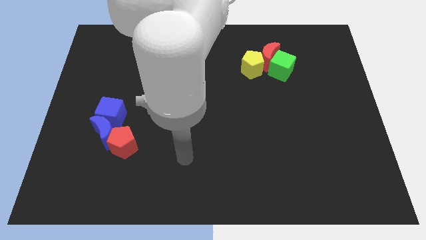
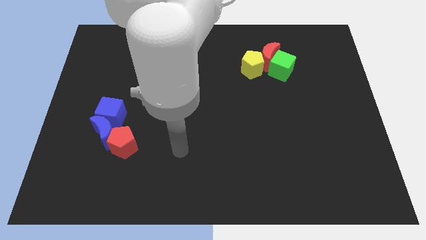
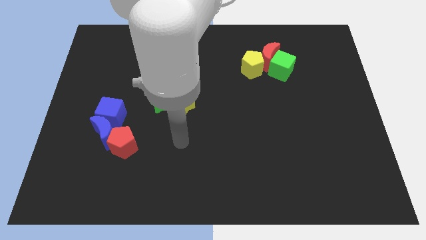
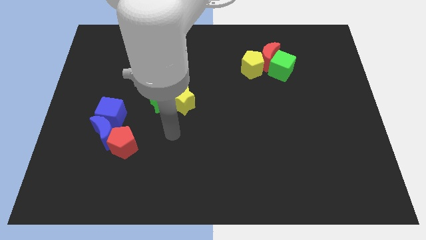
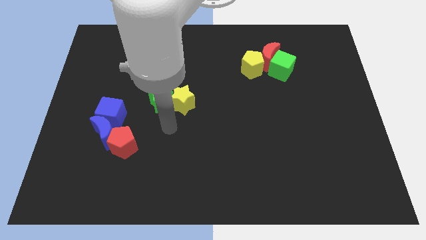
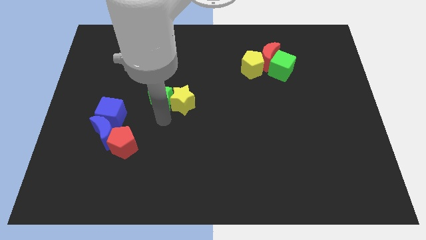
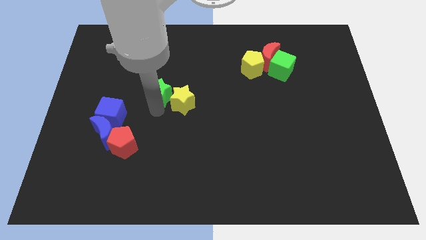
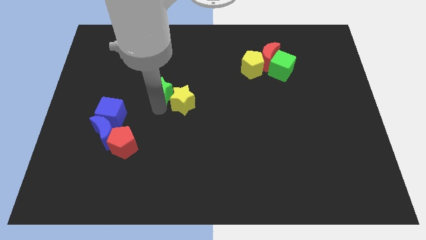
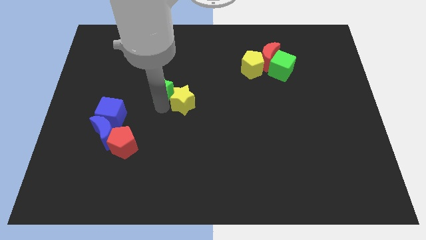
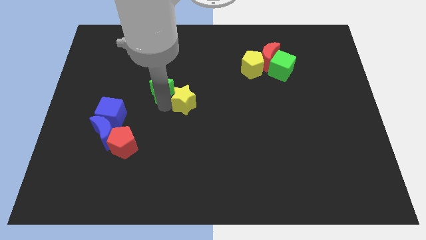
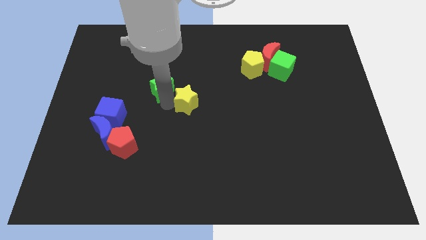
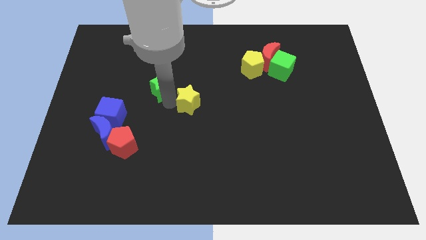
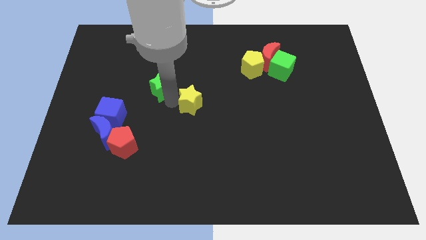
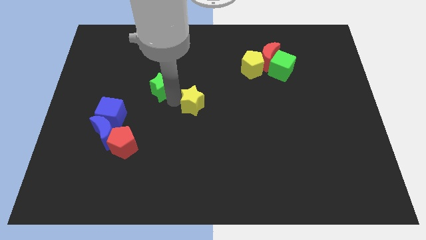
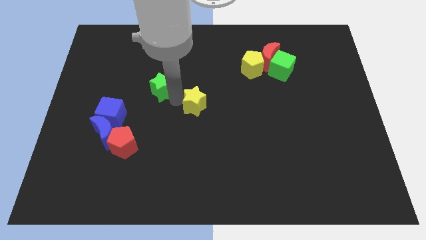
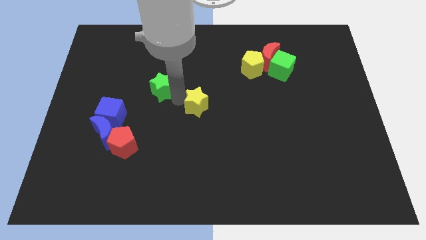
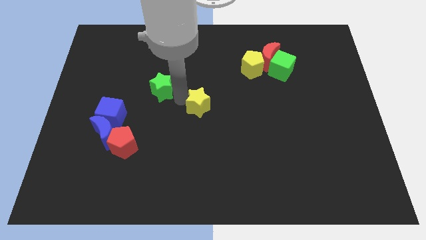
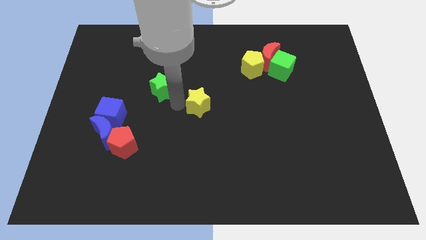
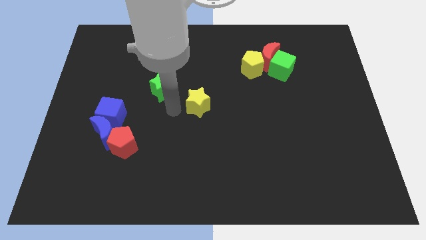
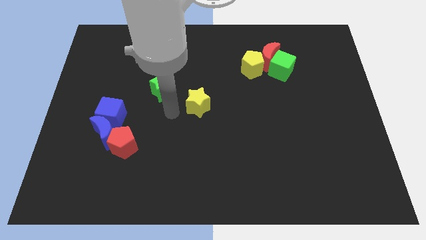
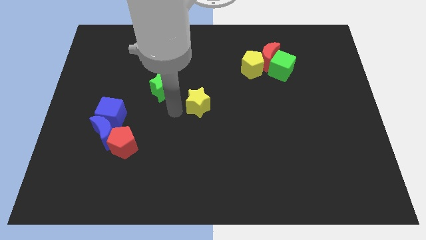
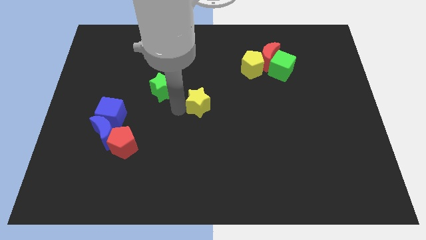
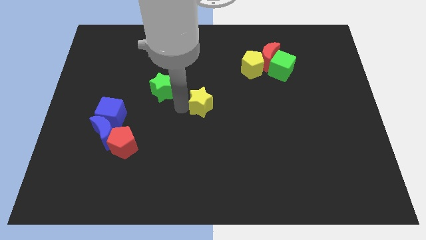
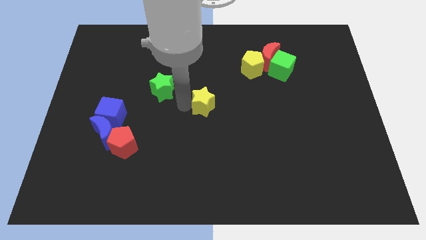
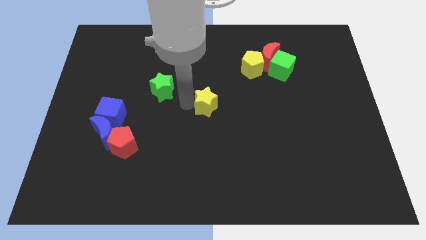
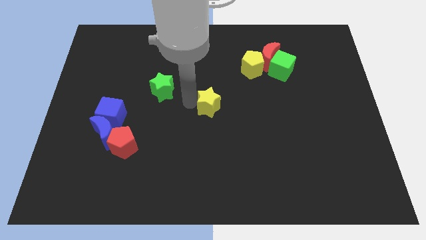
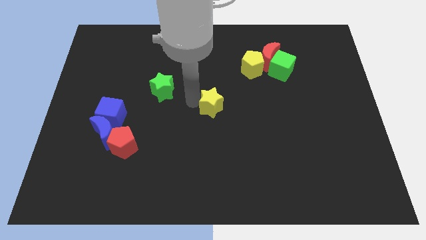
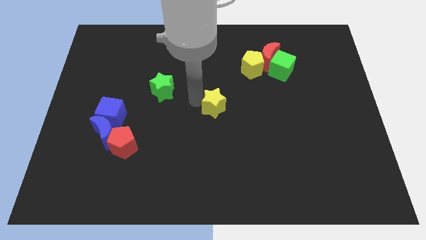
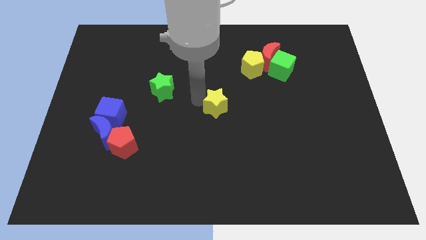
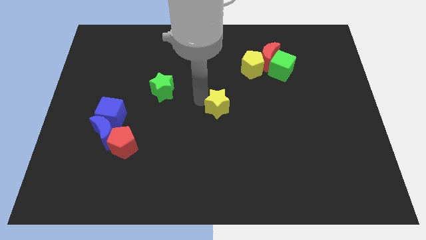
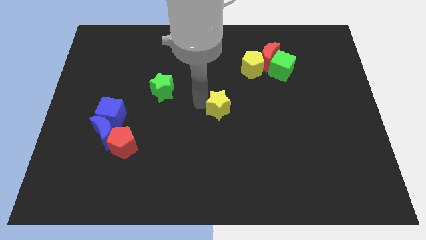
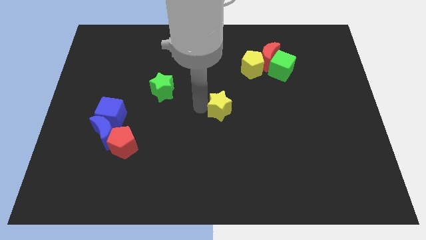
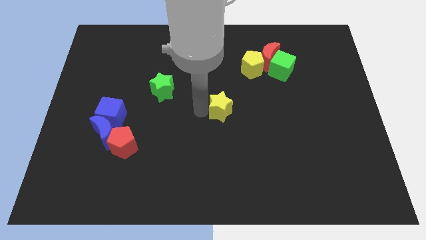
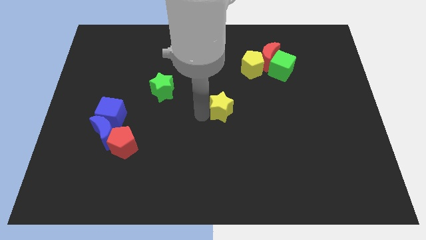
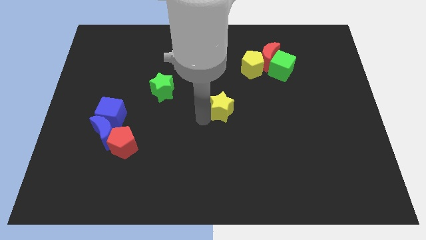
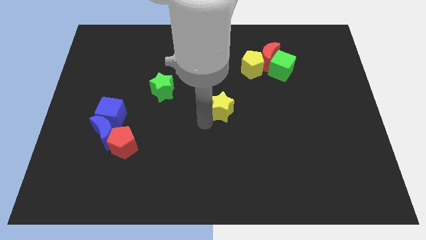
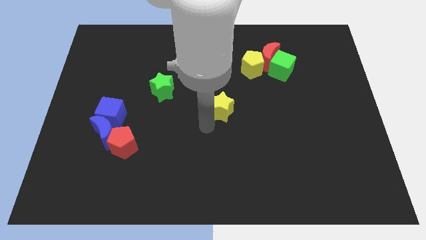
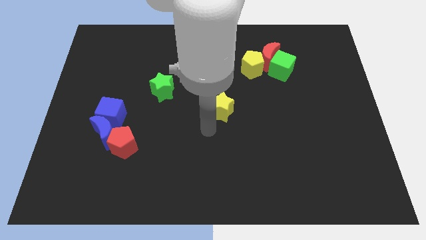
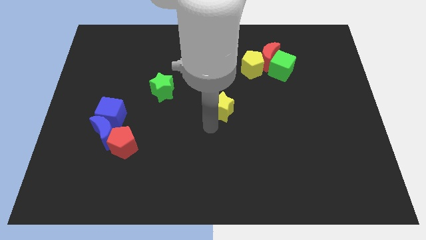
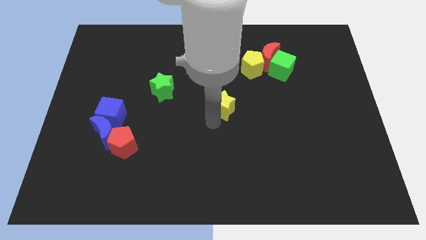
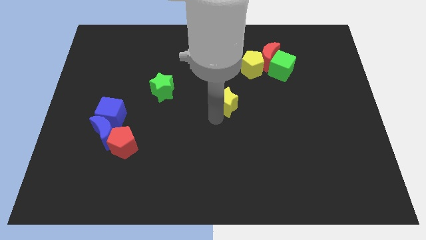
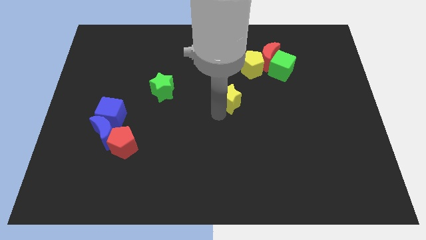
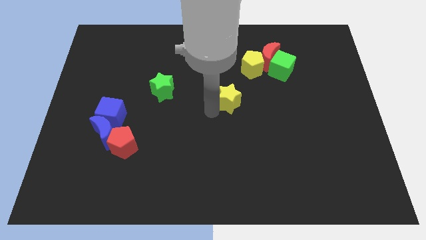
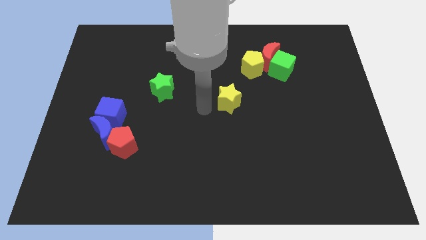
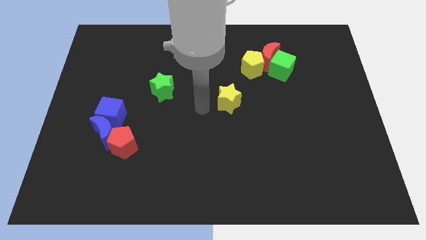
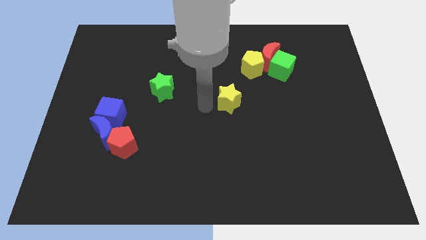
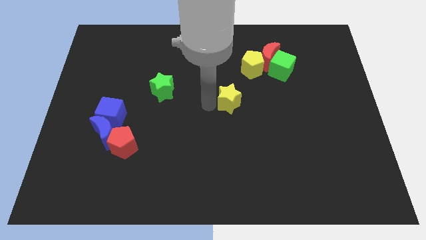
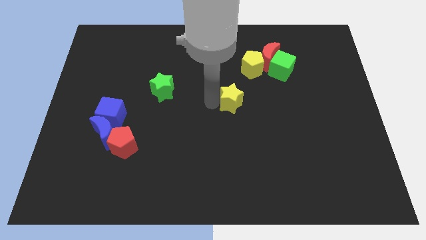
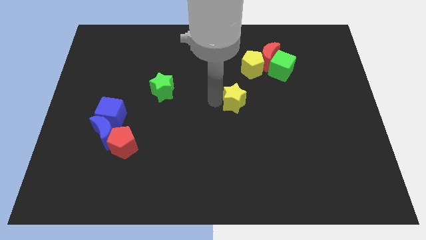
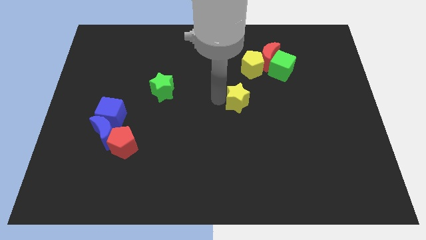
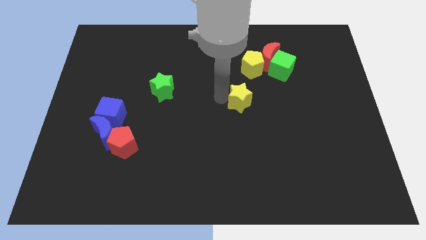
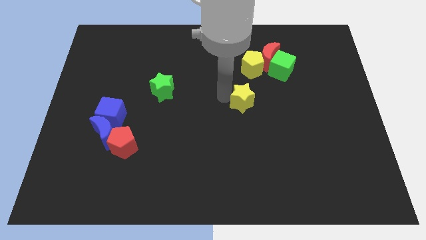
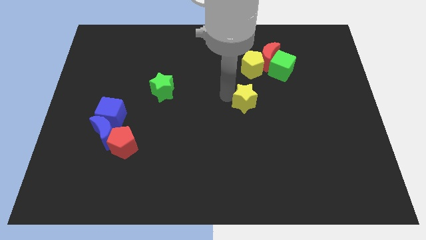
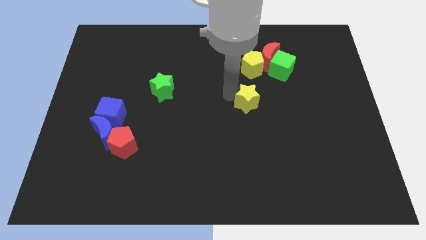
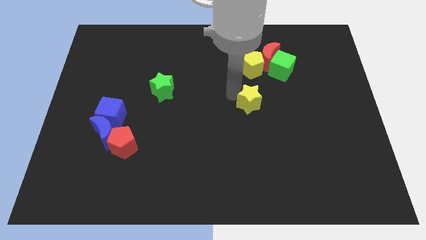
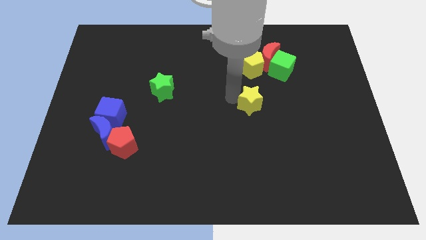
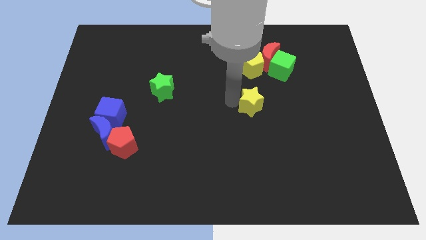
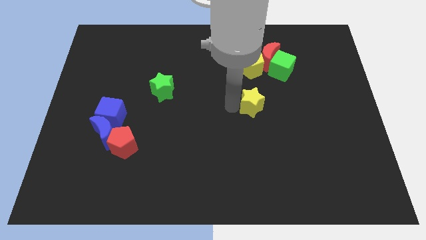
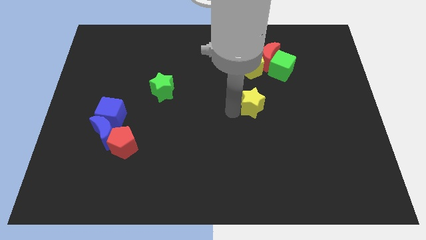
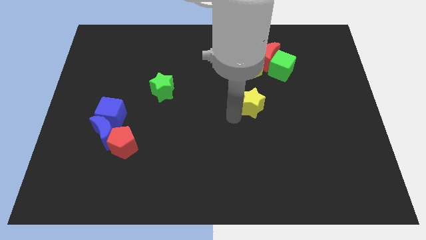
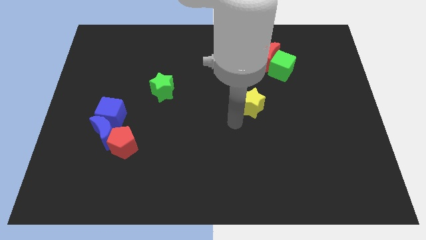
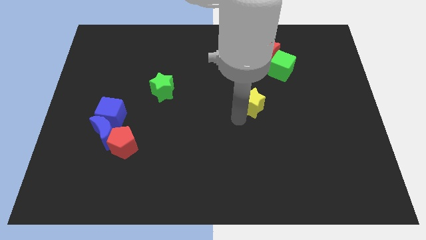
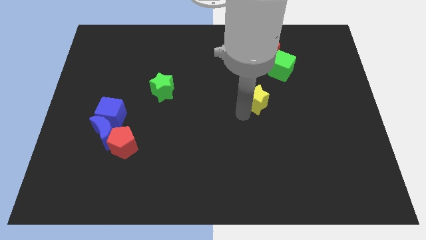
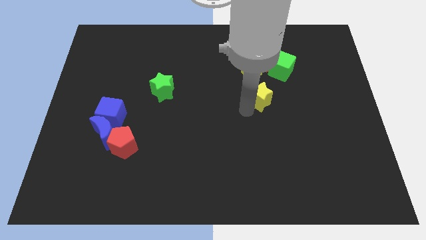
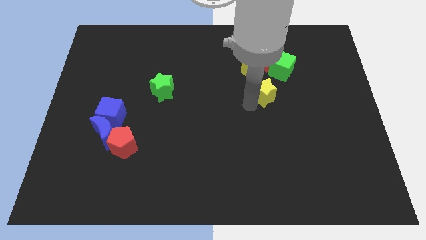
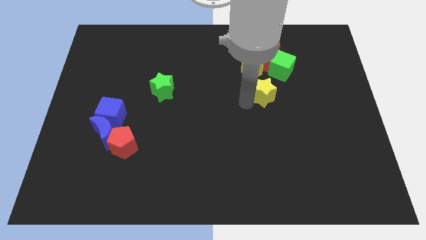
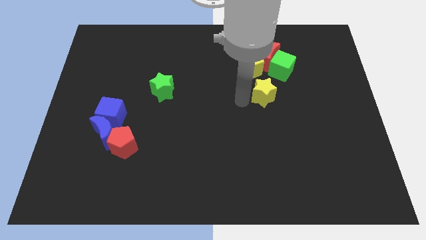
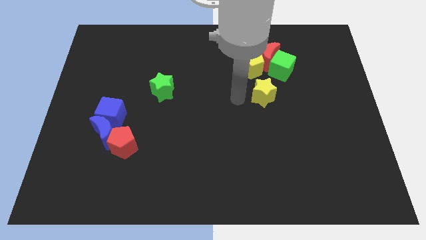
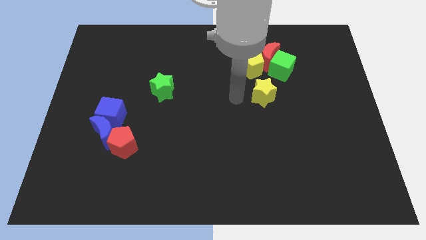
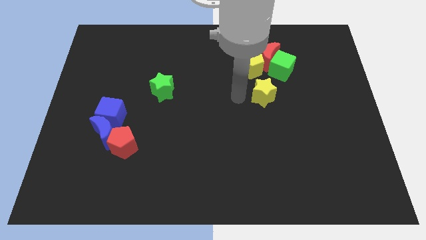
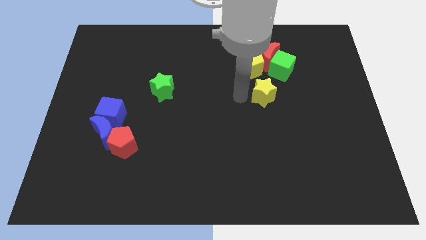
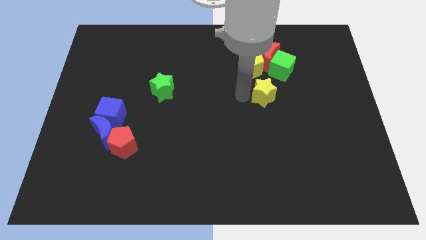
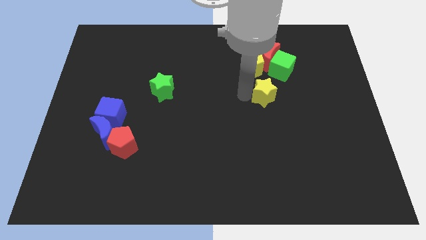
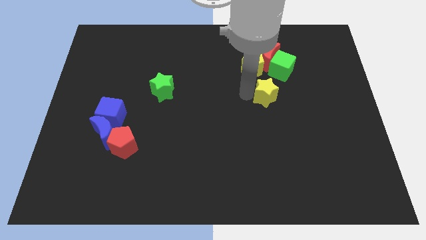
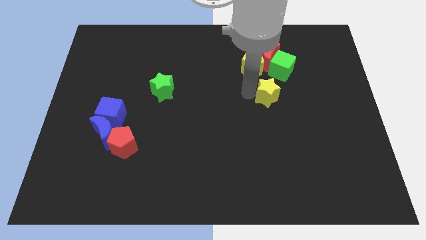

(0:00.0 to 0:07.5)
slide the yellow star right

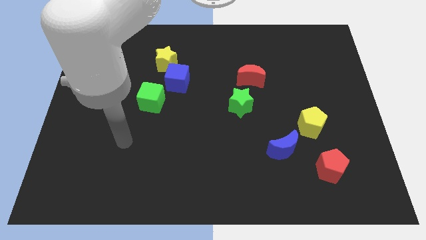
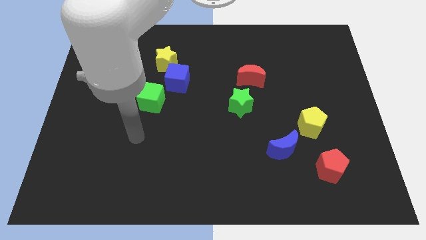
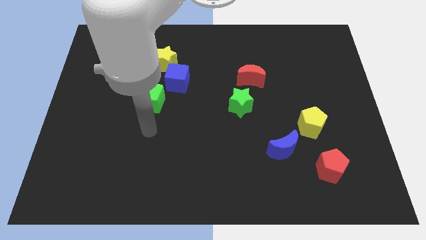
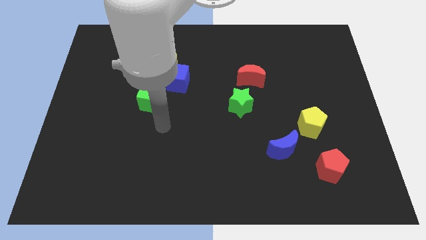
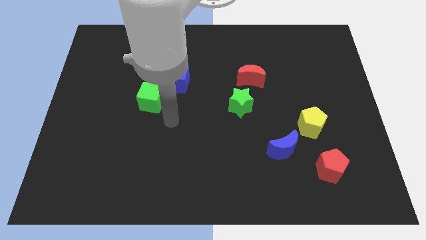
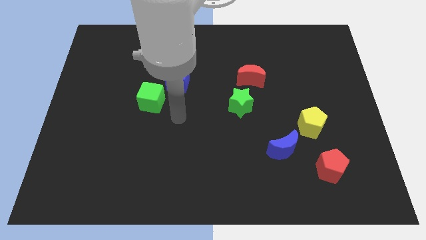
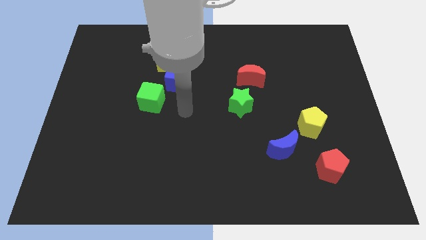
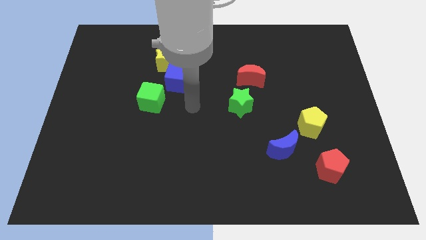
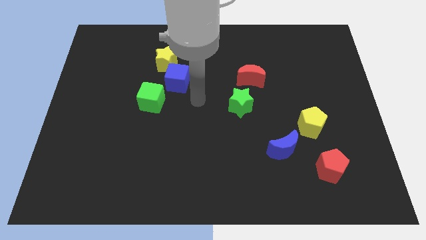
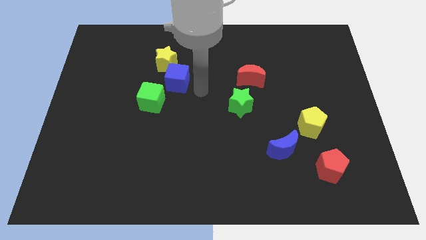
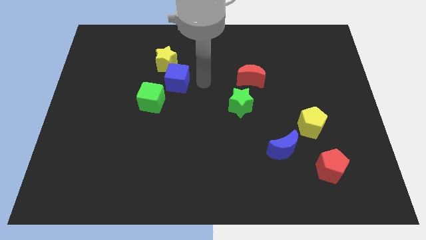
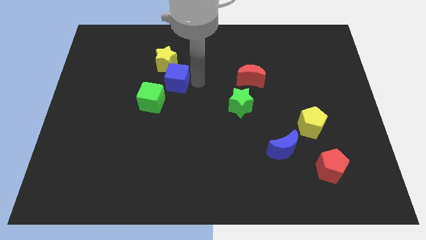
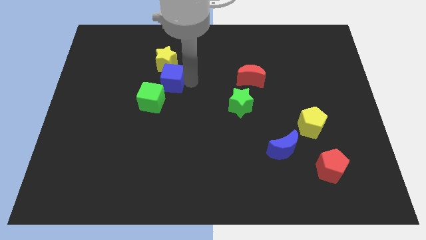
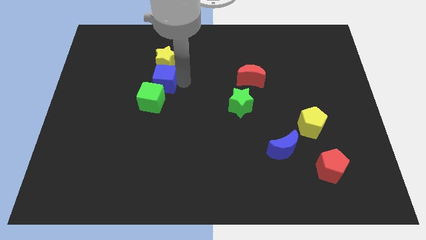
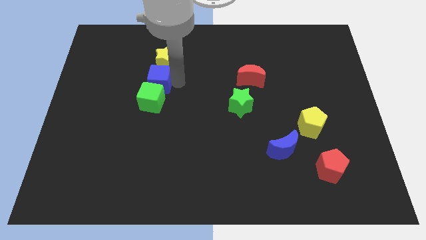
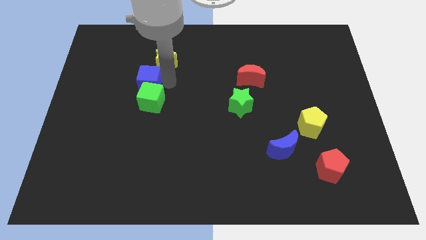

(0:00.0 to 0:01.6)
slightly push the blue cube to the left
